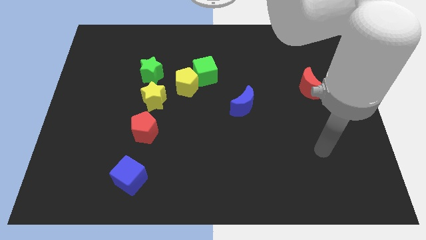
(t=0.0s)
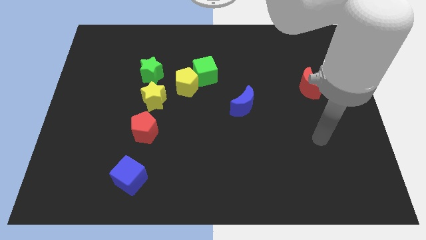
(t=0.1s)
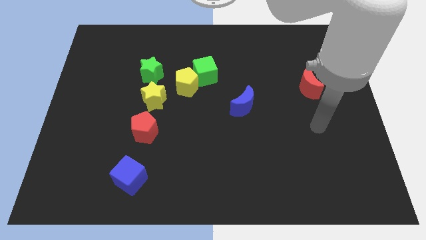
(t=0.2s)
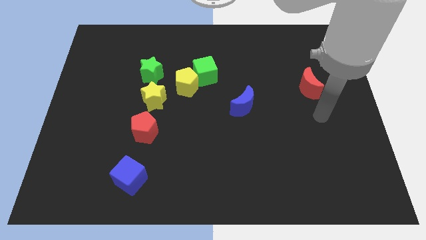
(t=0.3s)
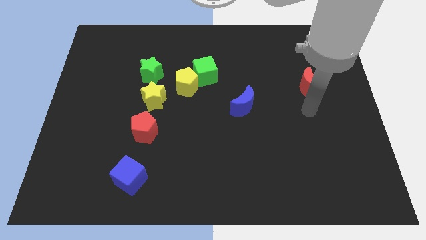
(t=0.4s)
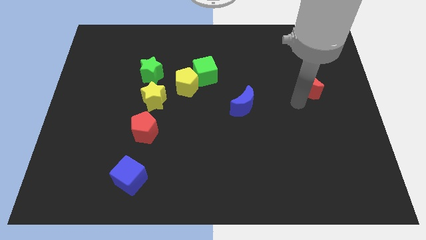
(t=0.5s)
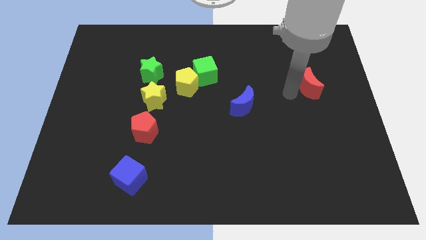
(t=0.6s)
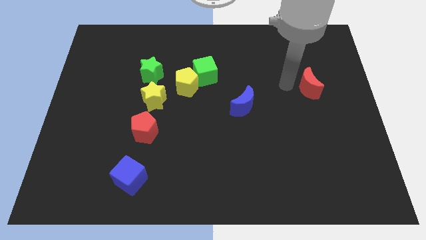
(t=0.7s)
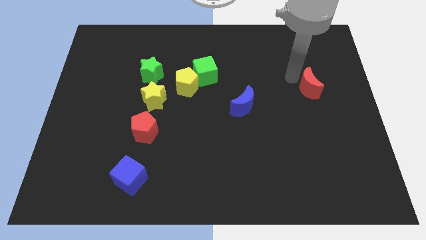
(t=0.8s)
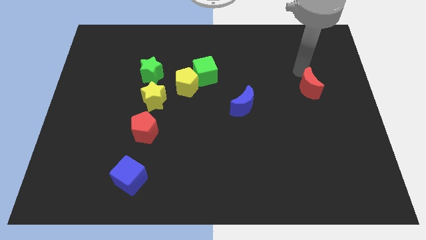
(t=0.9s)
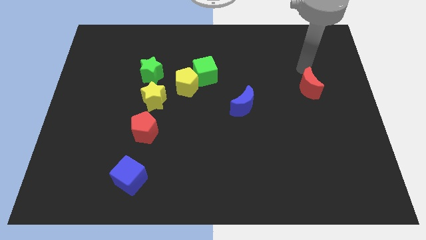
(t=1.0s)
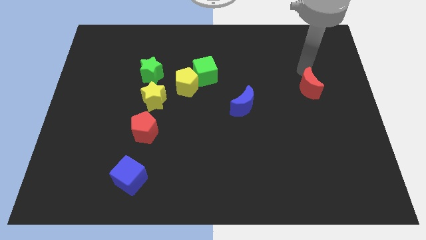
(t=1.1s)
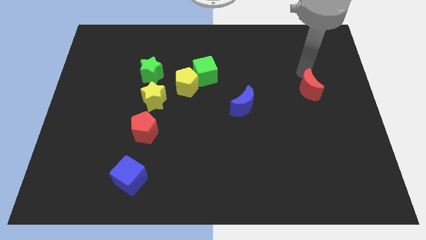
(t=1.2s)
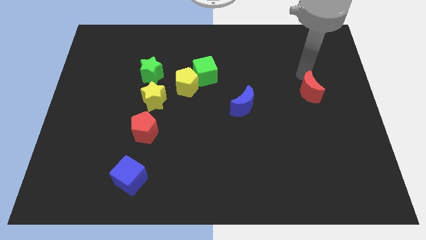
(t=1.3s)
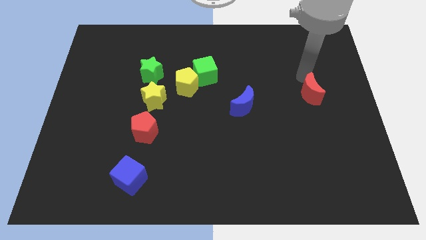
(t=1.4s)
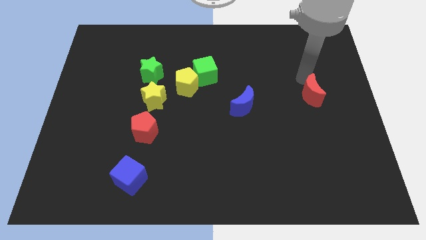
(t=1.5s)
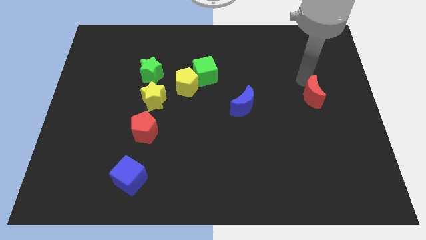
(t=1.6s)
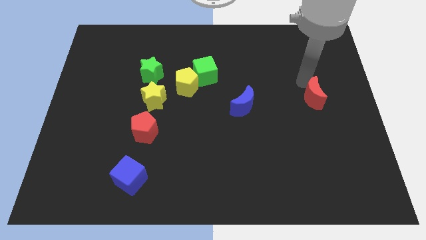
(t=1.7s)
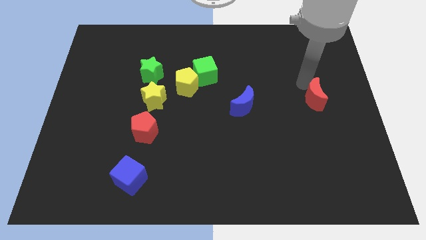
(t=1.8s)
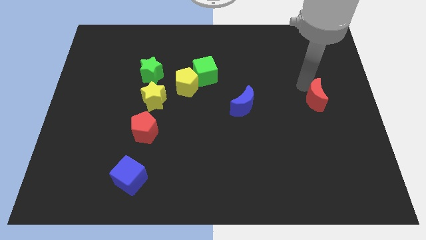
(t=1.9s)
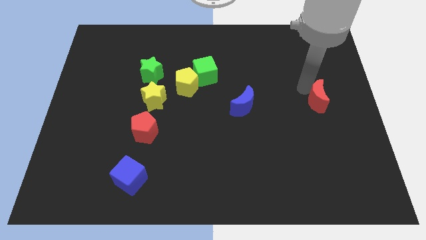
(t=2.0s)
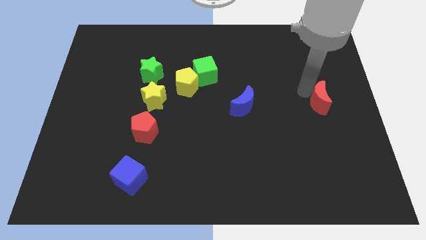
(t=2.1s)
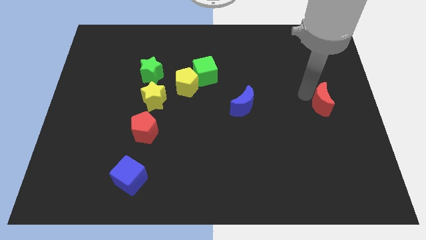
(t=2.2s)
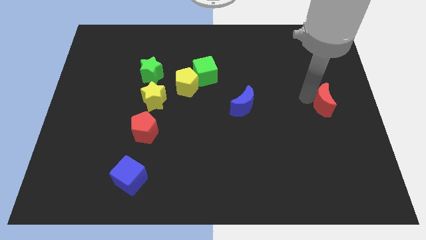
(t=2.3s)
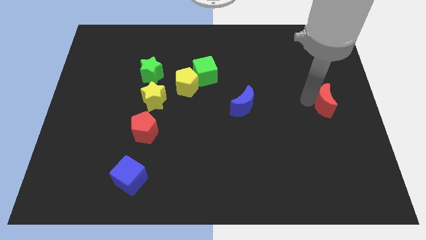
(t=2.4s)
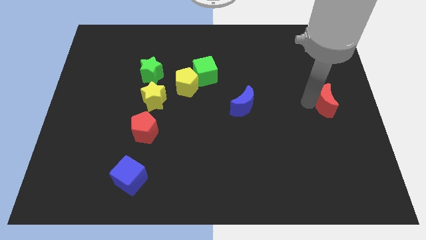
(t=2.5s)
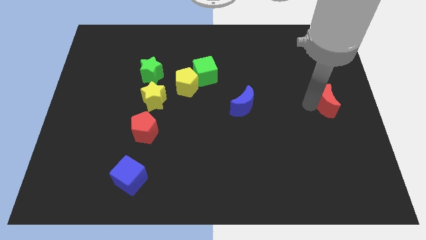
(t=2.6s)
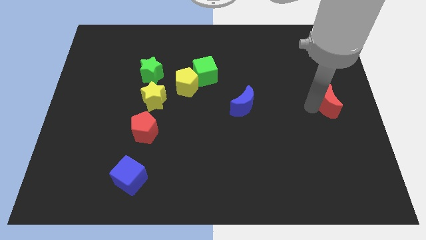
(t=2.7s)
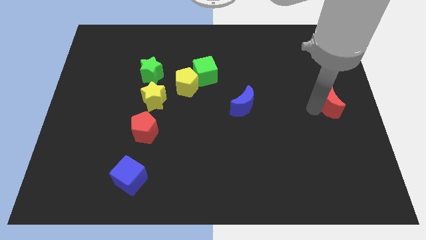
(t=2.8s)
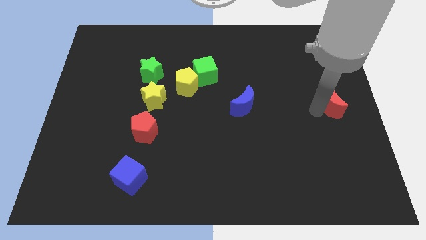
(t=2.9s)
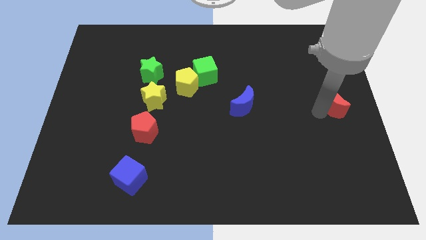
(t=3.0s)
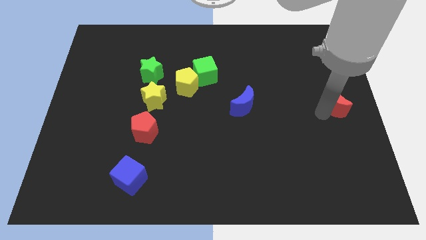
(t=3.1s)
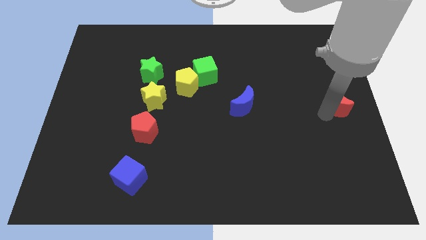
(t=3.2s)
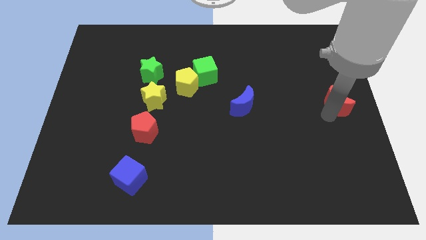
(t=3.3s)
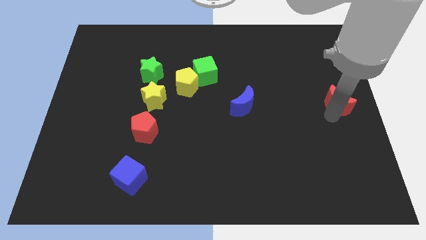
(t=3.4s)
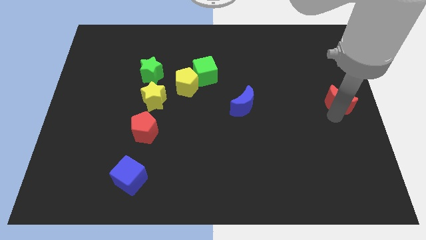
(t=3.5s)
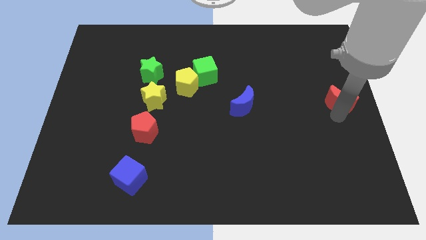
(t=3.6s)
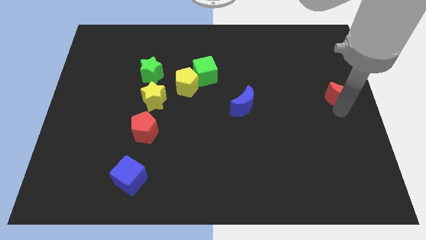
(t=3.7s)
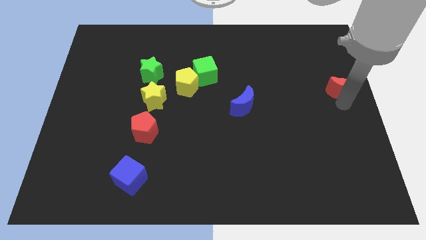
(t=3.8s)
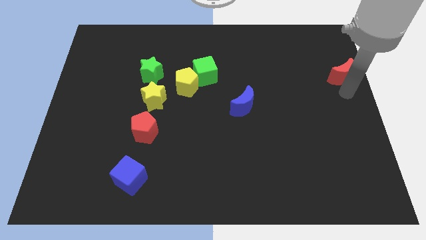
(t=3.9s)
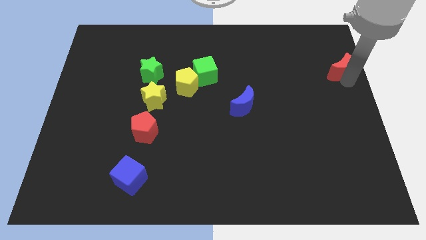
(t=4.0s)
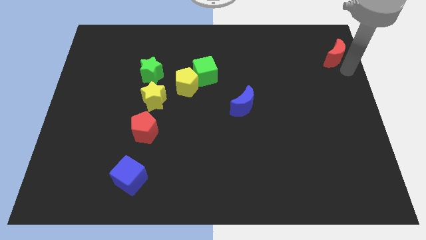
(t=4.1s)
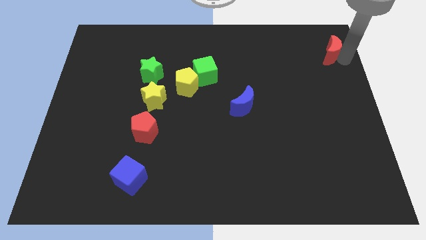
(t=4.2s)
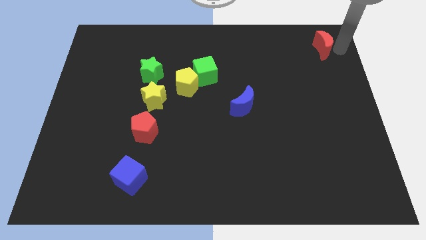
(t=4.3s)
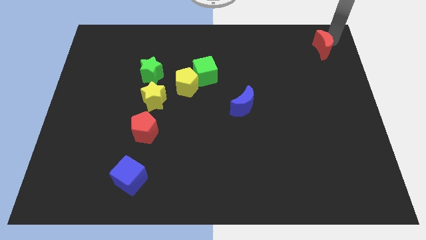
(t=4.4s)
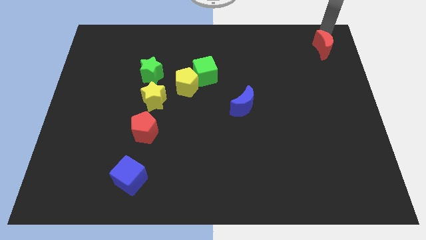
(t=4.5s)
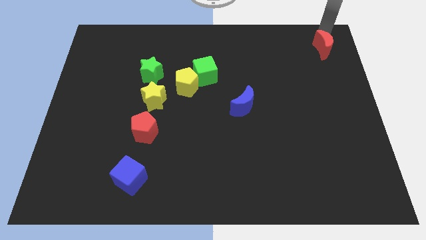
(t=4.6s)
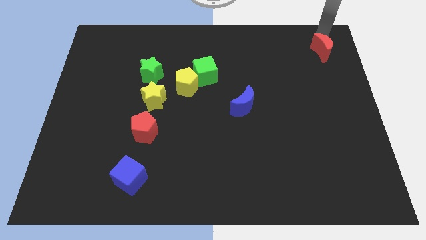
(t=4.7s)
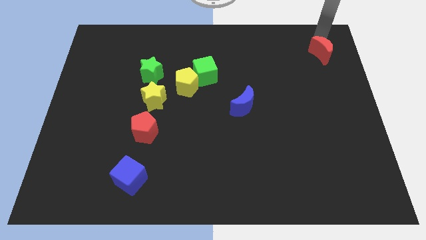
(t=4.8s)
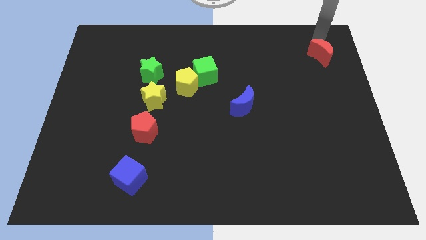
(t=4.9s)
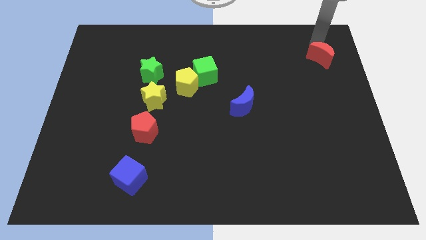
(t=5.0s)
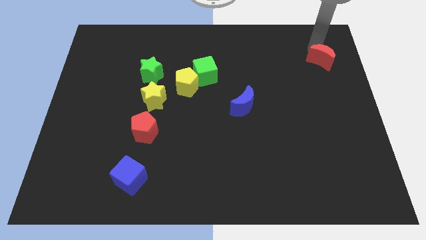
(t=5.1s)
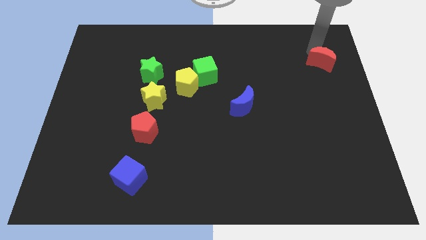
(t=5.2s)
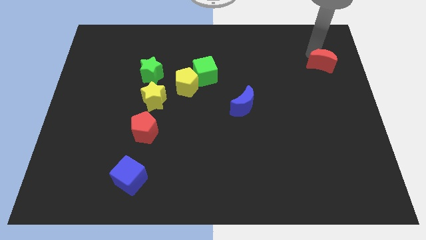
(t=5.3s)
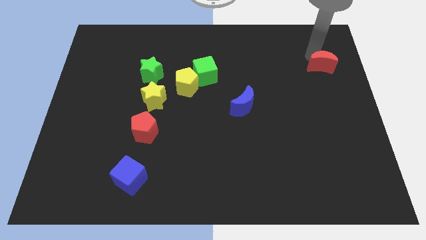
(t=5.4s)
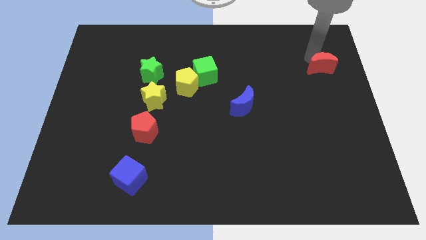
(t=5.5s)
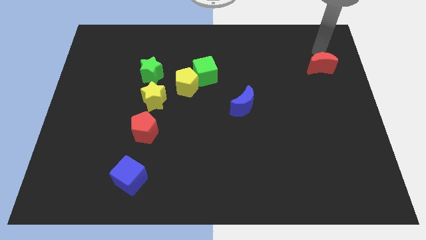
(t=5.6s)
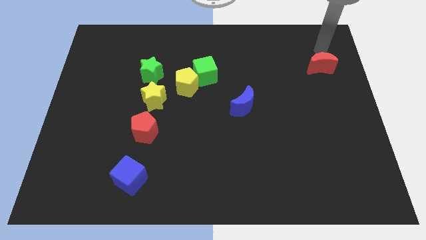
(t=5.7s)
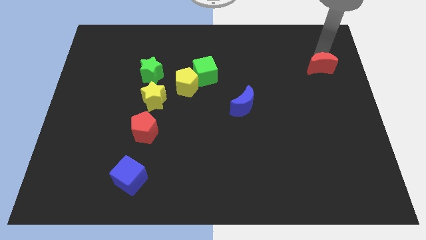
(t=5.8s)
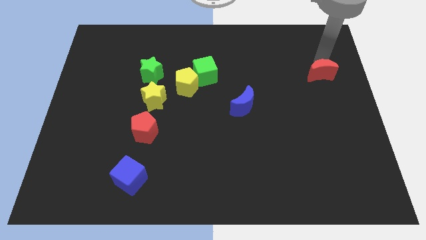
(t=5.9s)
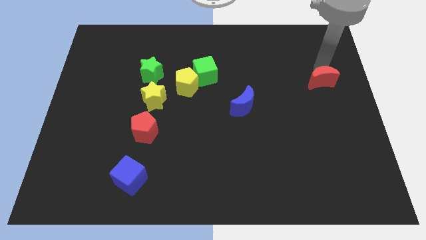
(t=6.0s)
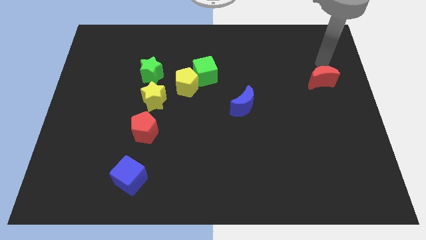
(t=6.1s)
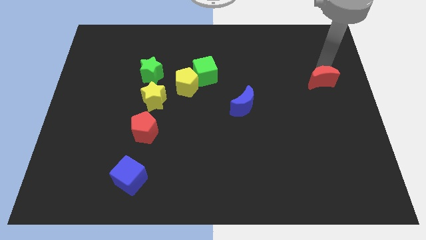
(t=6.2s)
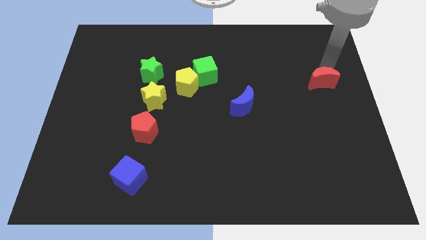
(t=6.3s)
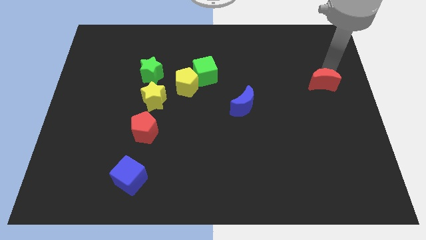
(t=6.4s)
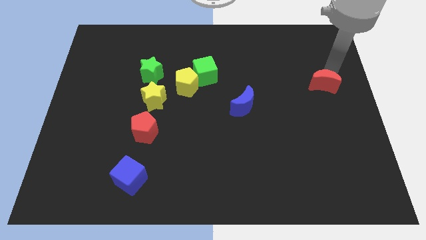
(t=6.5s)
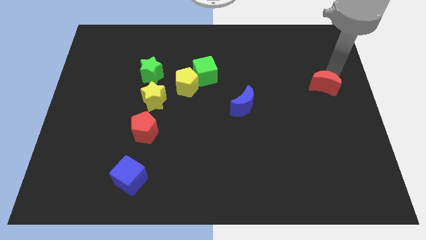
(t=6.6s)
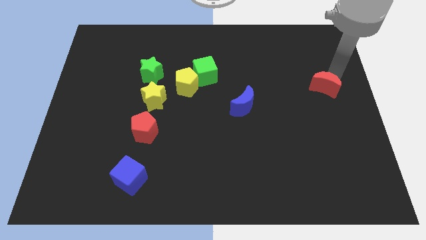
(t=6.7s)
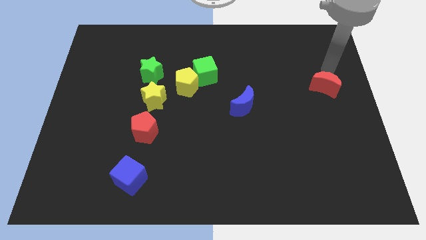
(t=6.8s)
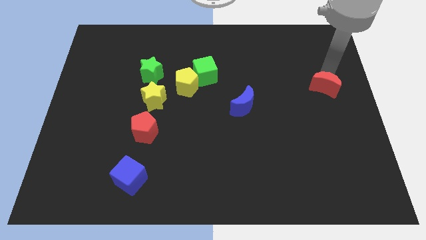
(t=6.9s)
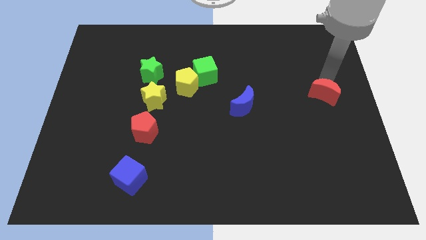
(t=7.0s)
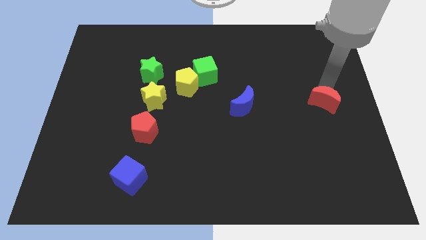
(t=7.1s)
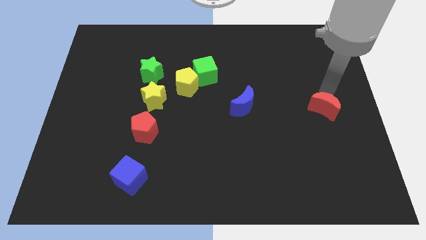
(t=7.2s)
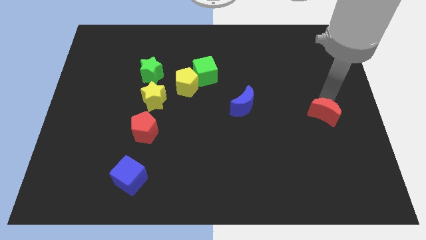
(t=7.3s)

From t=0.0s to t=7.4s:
push the red moon down slightly
